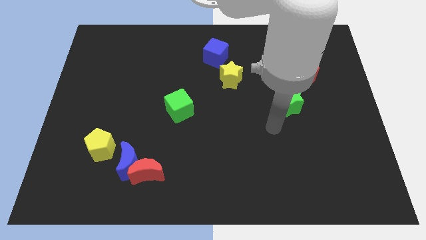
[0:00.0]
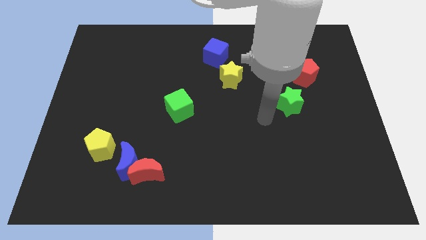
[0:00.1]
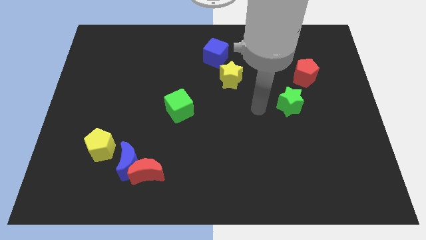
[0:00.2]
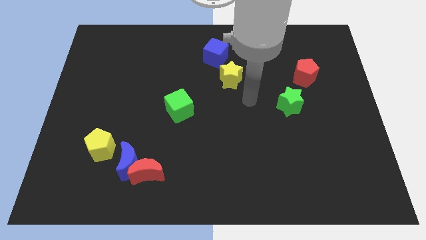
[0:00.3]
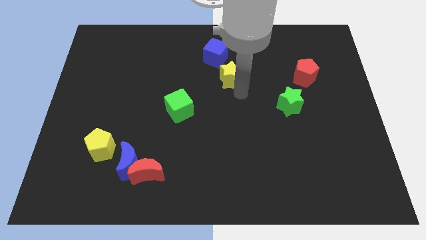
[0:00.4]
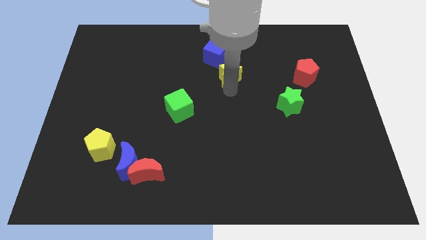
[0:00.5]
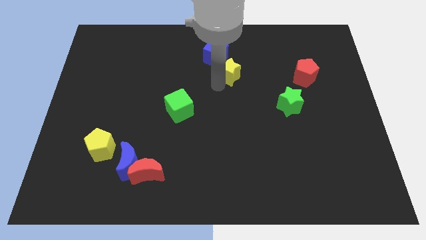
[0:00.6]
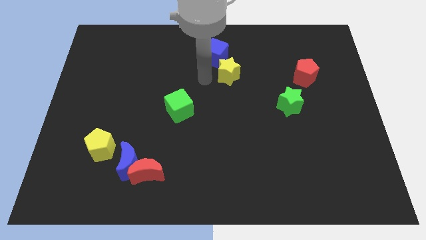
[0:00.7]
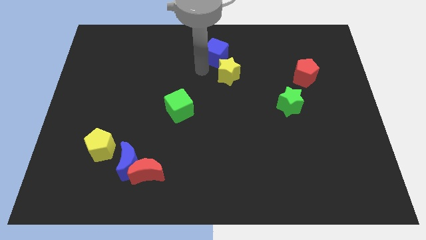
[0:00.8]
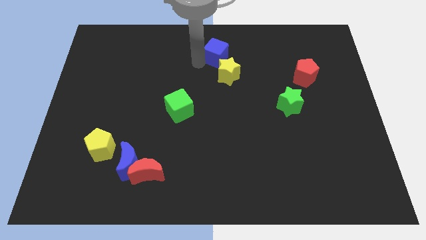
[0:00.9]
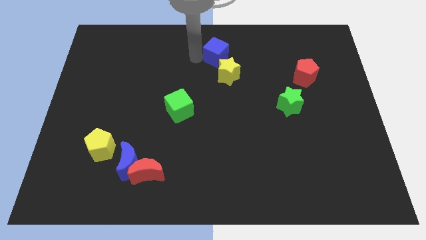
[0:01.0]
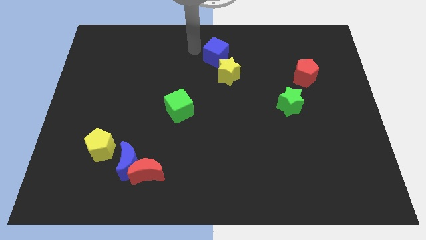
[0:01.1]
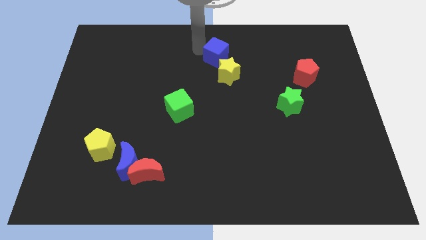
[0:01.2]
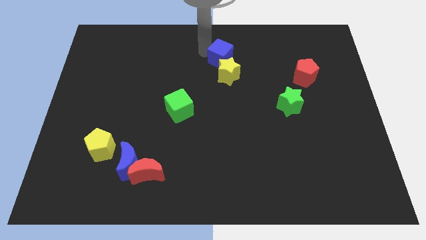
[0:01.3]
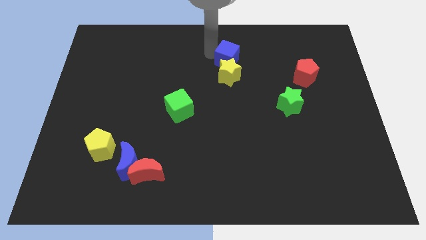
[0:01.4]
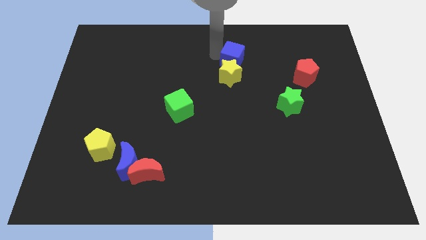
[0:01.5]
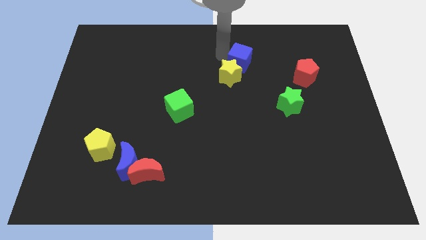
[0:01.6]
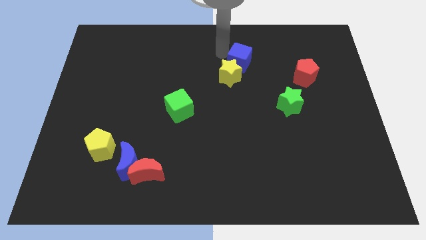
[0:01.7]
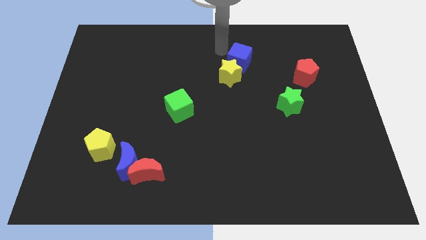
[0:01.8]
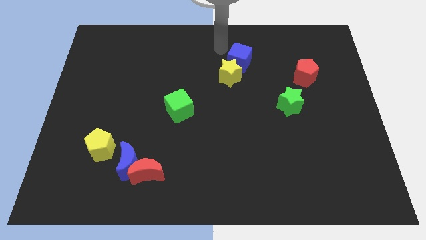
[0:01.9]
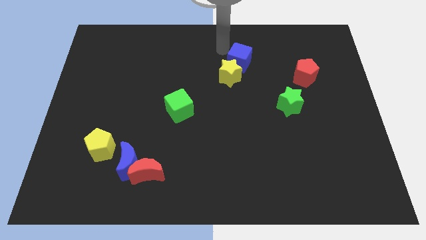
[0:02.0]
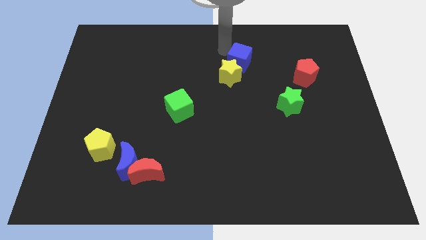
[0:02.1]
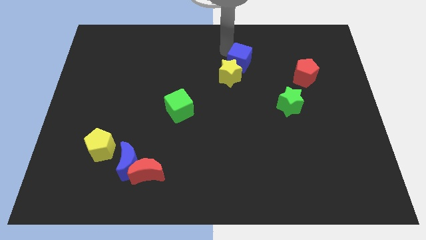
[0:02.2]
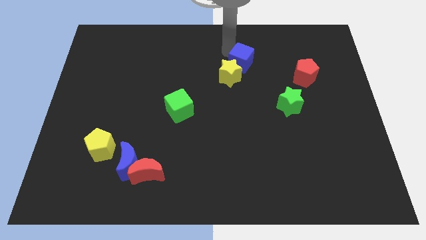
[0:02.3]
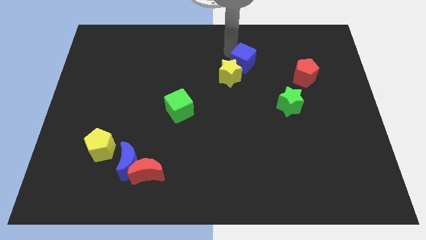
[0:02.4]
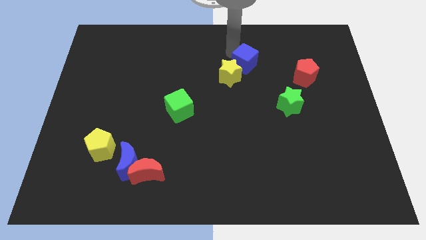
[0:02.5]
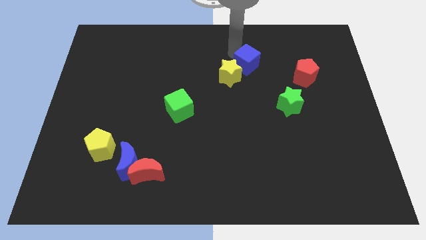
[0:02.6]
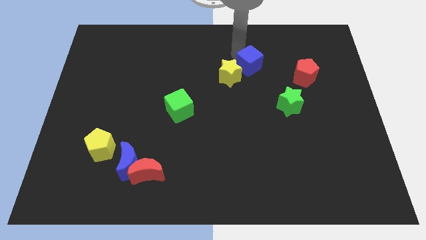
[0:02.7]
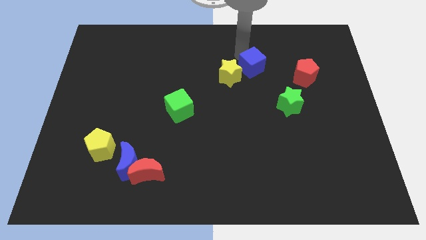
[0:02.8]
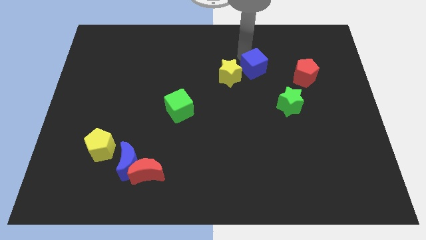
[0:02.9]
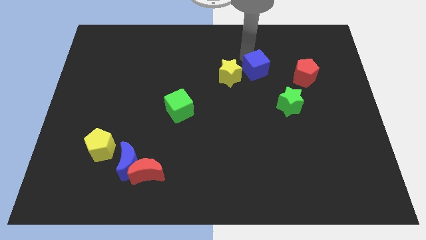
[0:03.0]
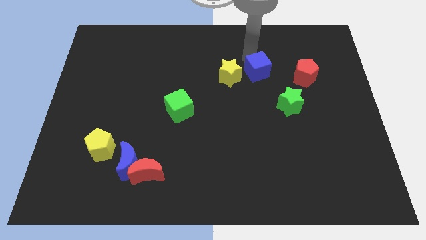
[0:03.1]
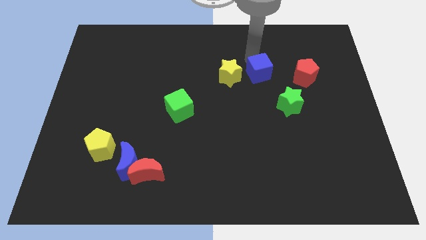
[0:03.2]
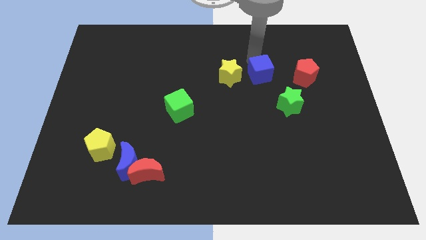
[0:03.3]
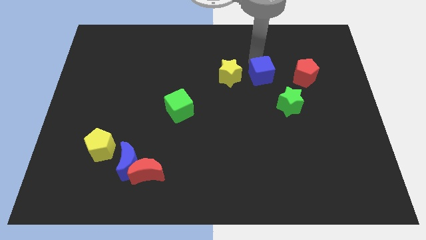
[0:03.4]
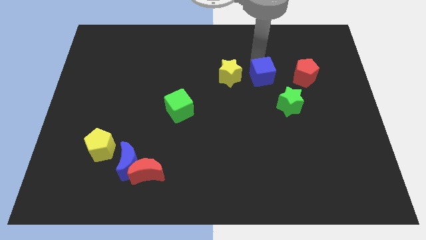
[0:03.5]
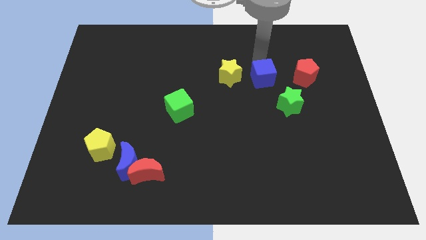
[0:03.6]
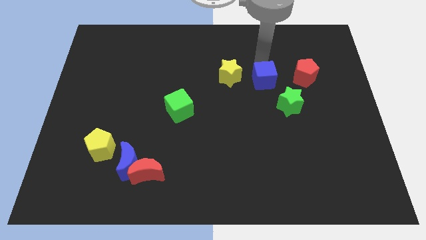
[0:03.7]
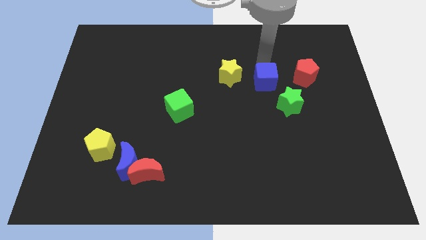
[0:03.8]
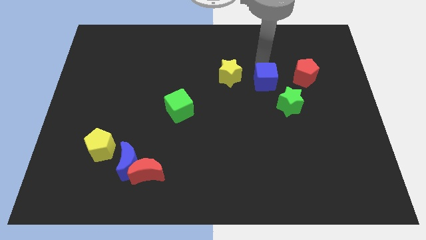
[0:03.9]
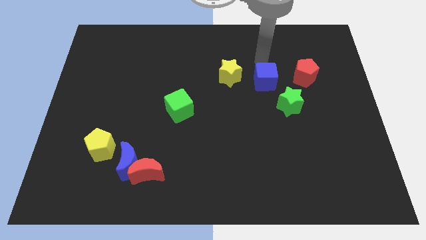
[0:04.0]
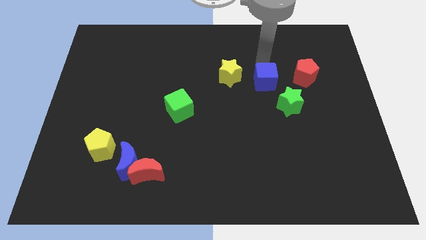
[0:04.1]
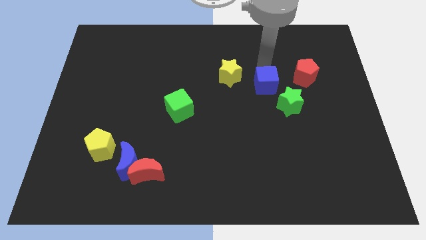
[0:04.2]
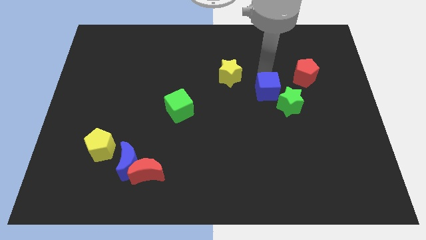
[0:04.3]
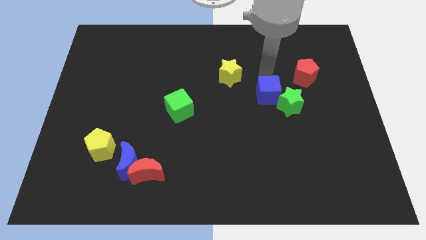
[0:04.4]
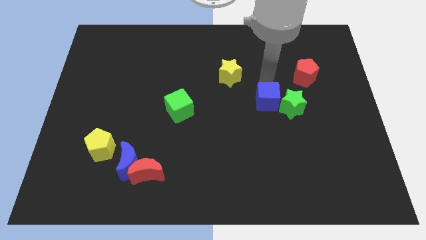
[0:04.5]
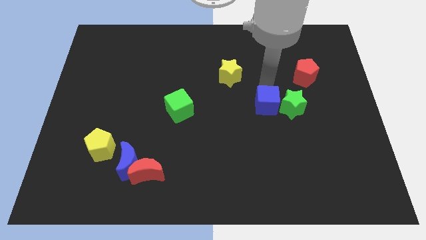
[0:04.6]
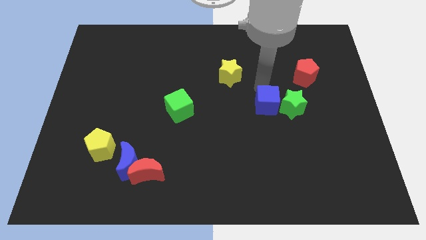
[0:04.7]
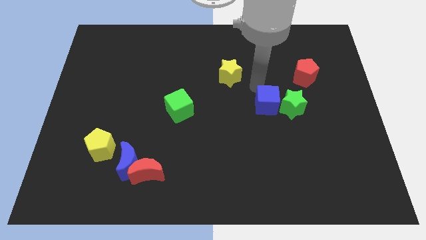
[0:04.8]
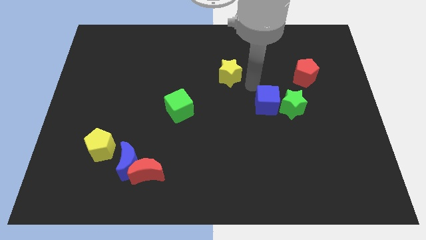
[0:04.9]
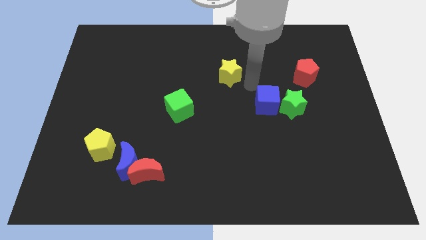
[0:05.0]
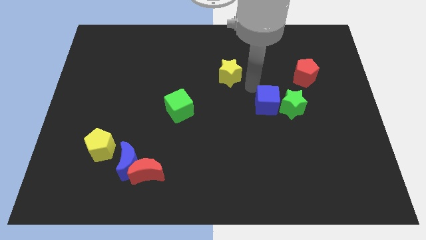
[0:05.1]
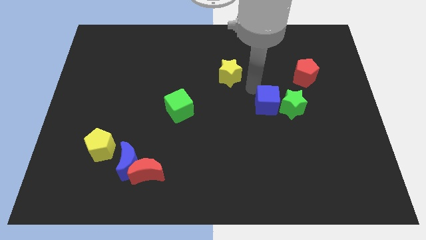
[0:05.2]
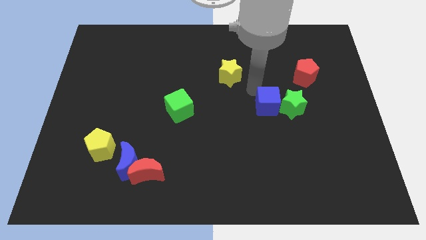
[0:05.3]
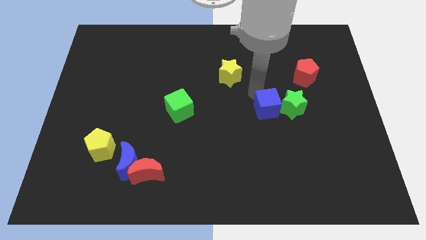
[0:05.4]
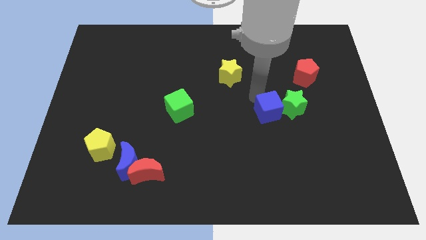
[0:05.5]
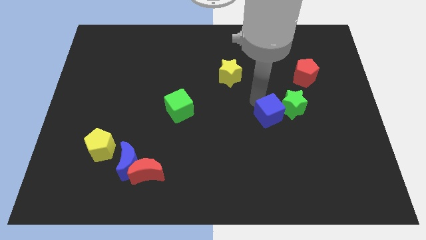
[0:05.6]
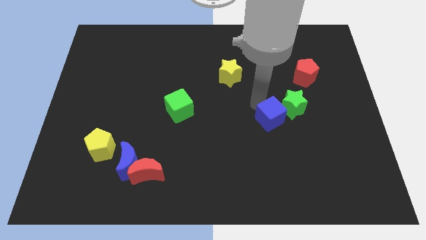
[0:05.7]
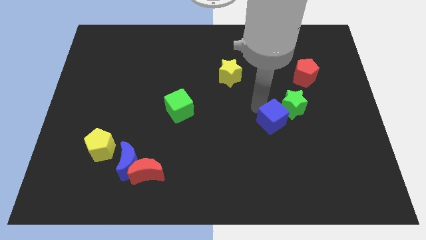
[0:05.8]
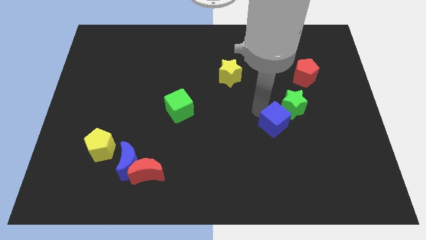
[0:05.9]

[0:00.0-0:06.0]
put the blue cube below the green star

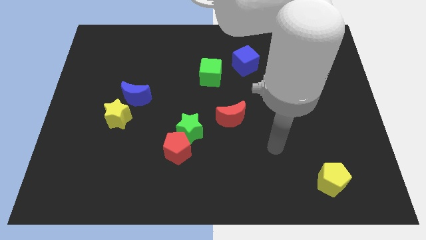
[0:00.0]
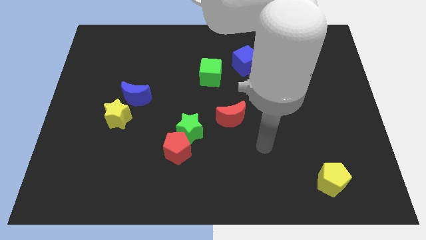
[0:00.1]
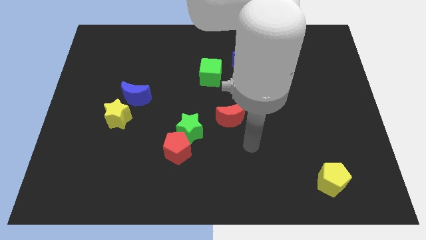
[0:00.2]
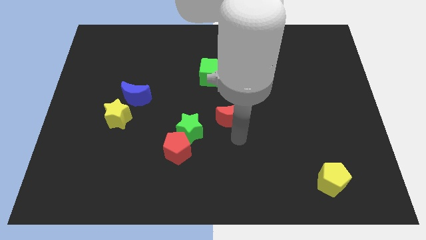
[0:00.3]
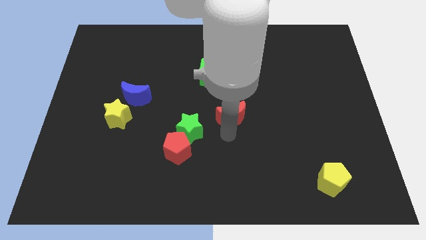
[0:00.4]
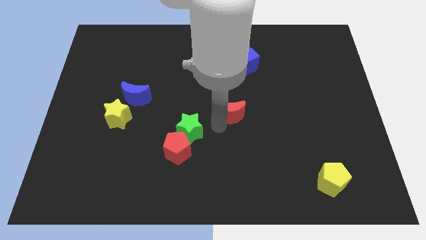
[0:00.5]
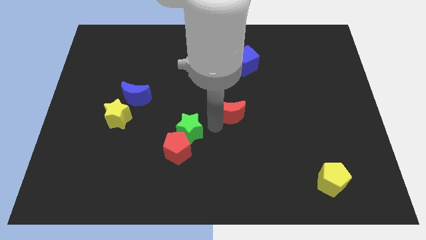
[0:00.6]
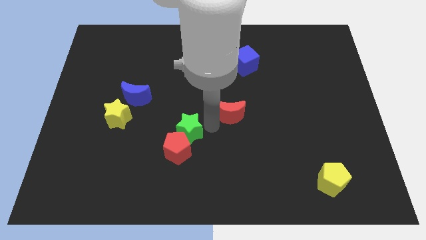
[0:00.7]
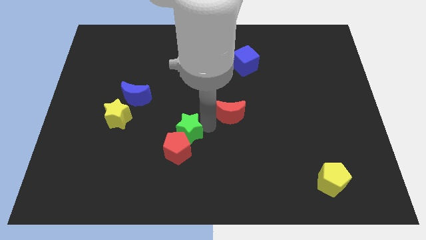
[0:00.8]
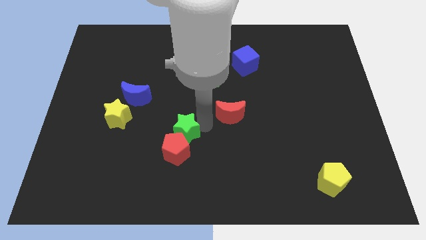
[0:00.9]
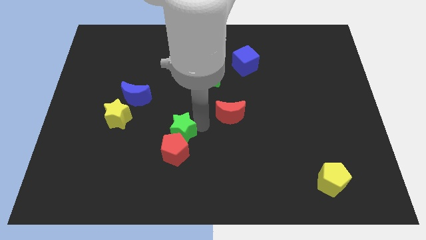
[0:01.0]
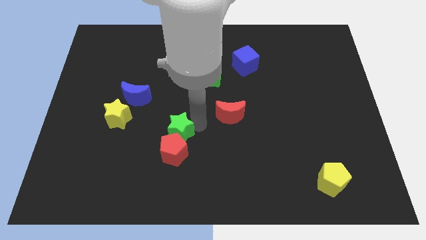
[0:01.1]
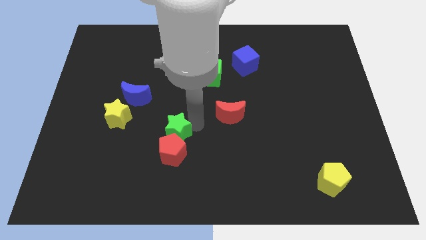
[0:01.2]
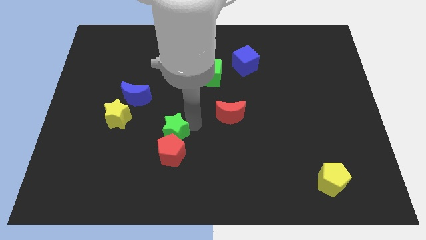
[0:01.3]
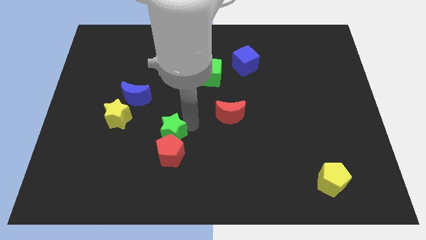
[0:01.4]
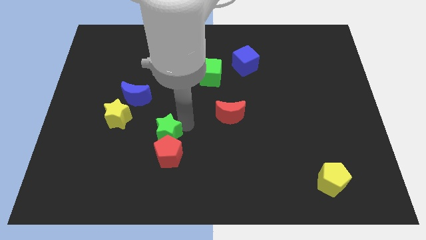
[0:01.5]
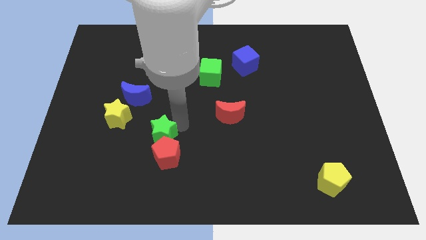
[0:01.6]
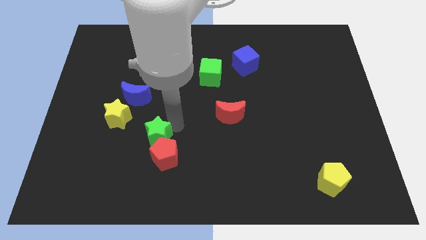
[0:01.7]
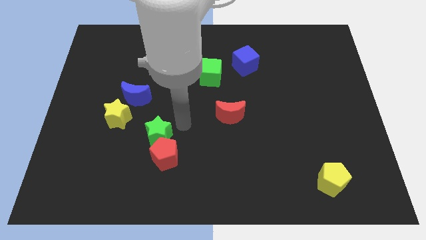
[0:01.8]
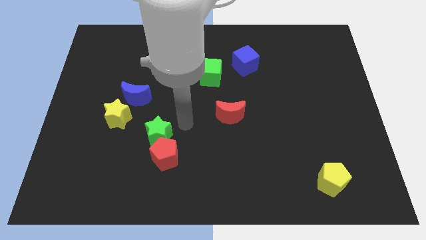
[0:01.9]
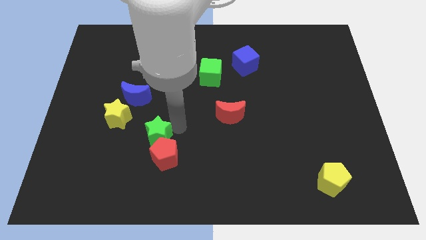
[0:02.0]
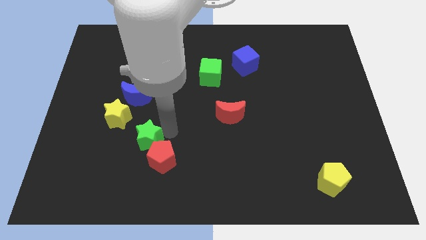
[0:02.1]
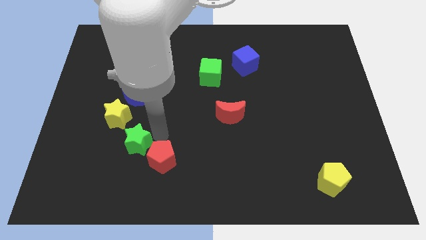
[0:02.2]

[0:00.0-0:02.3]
put the green star just left of the red pentagon
